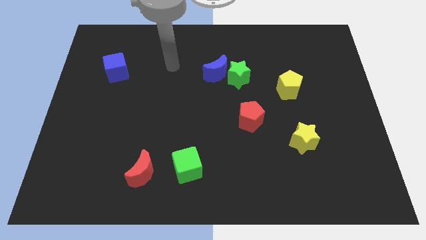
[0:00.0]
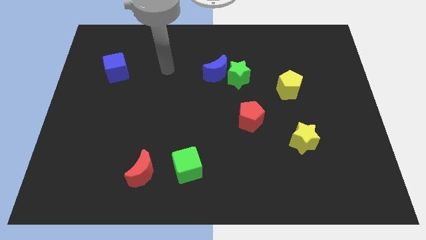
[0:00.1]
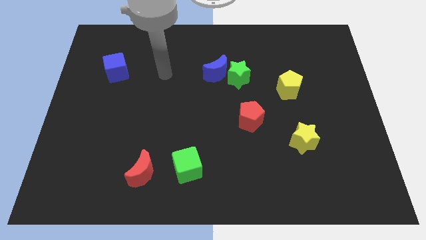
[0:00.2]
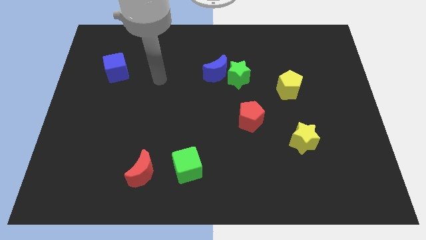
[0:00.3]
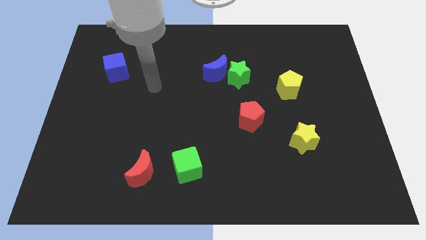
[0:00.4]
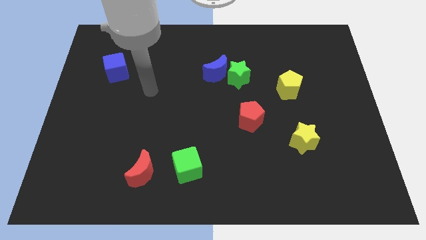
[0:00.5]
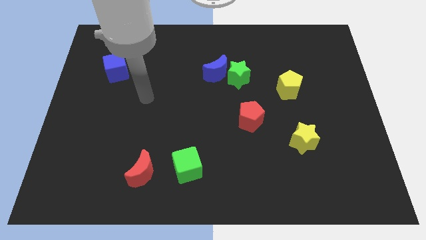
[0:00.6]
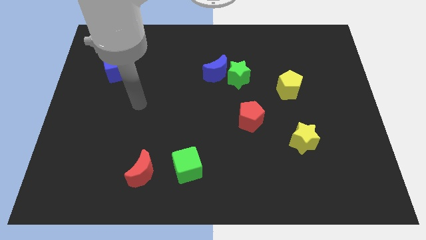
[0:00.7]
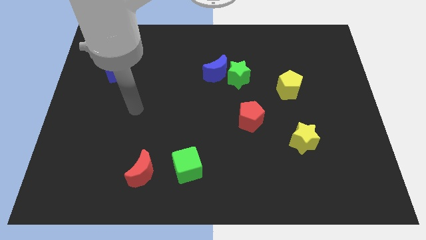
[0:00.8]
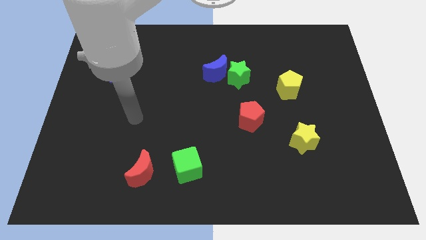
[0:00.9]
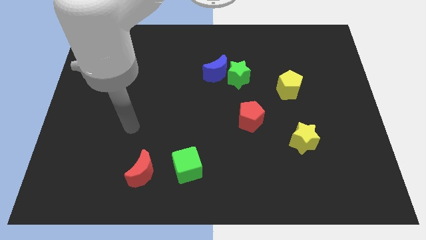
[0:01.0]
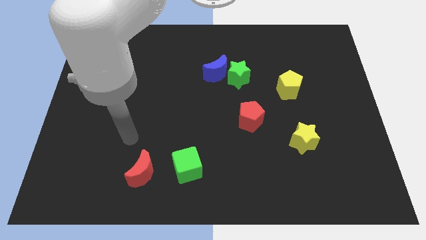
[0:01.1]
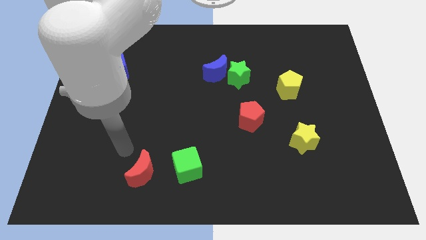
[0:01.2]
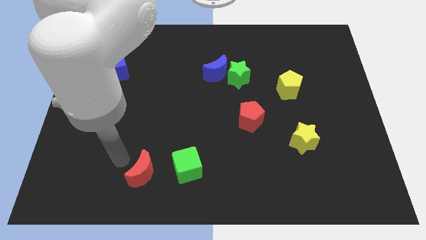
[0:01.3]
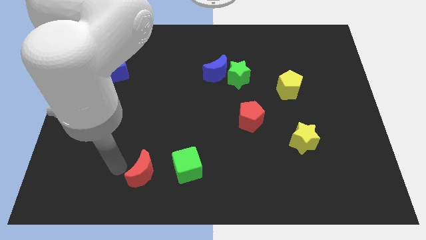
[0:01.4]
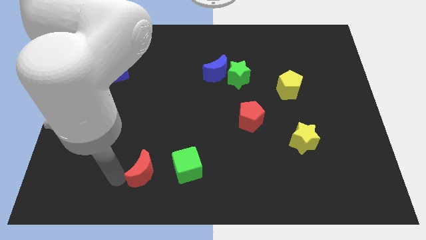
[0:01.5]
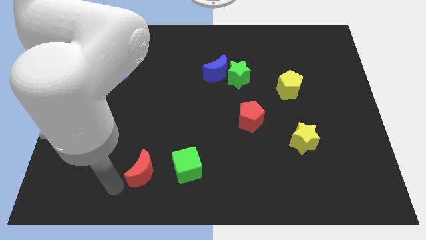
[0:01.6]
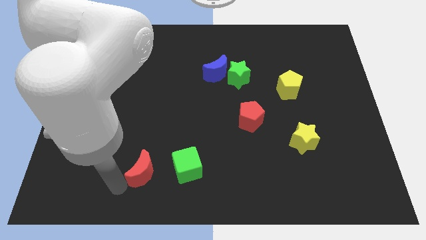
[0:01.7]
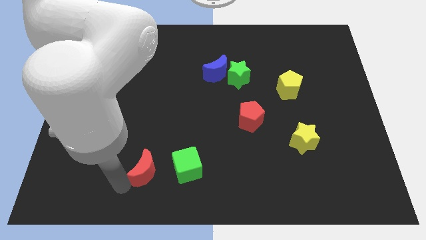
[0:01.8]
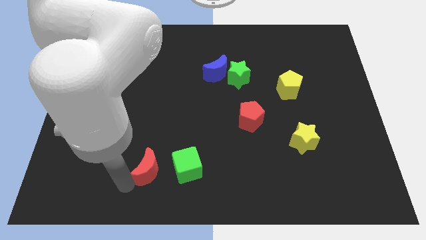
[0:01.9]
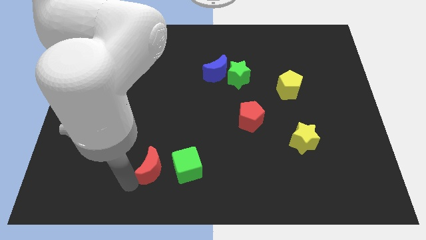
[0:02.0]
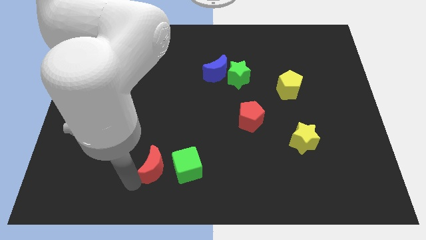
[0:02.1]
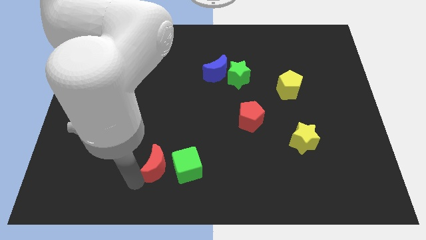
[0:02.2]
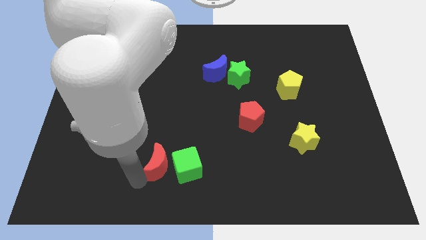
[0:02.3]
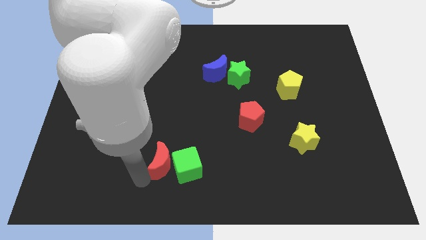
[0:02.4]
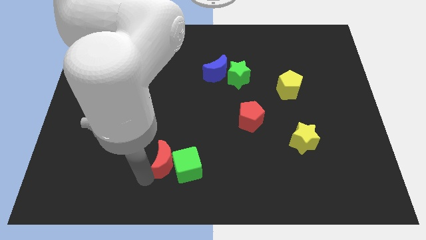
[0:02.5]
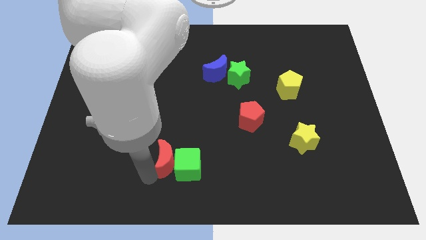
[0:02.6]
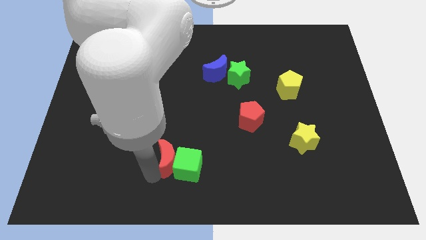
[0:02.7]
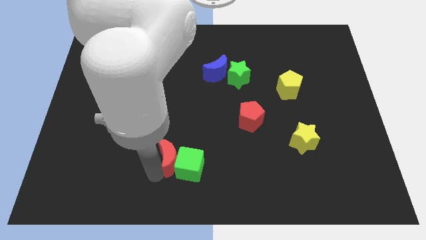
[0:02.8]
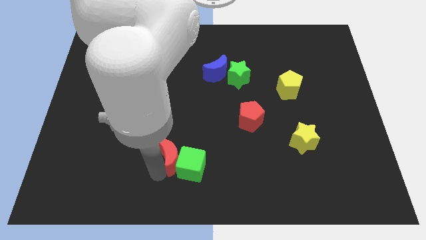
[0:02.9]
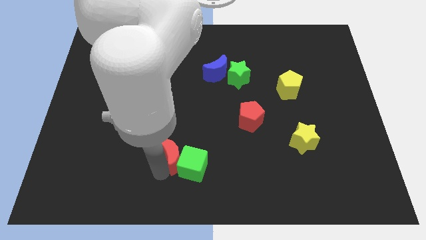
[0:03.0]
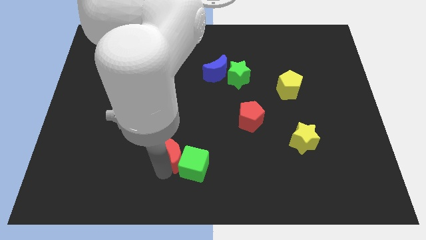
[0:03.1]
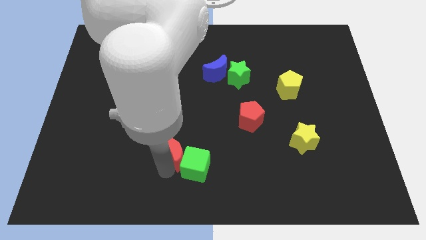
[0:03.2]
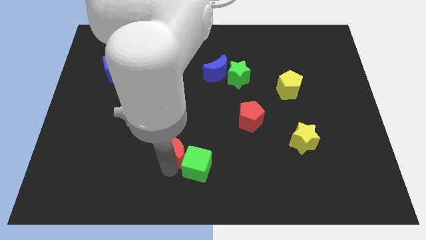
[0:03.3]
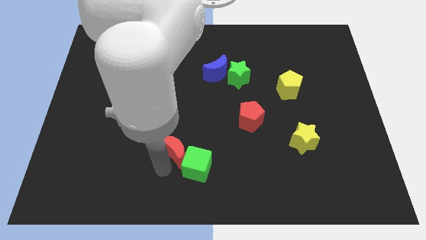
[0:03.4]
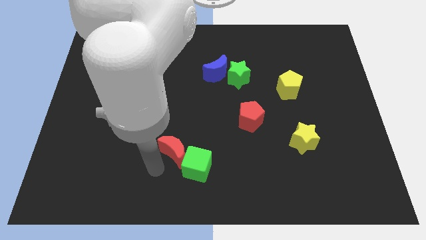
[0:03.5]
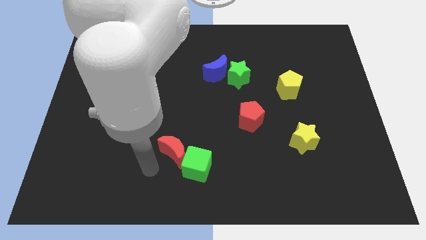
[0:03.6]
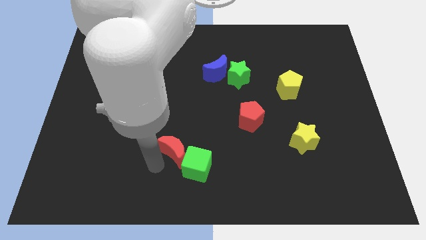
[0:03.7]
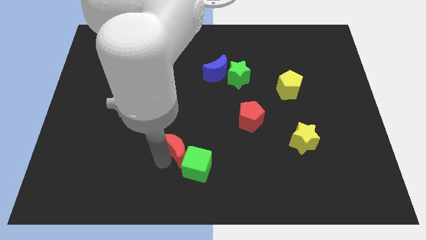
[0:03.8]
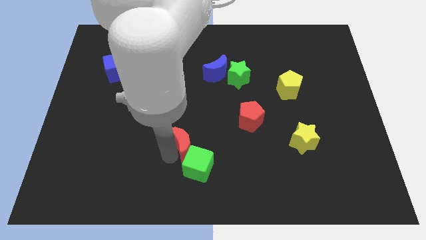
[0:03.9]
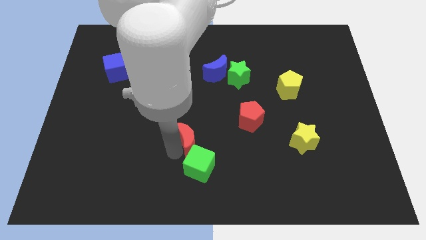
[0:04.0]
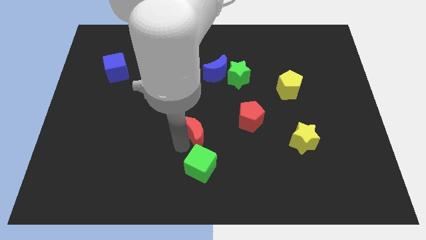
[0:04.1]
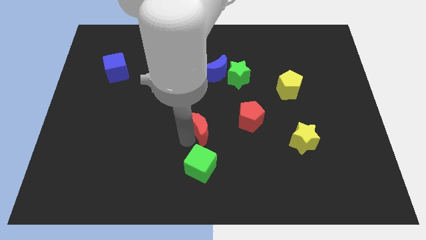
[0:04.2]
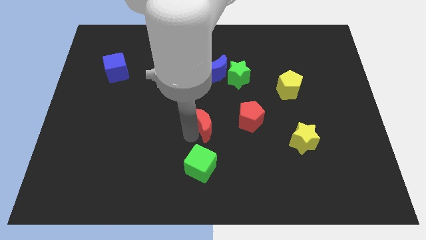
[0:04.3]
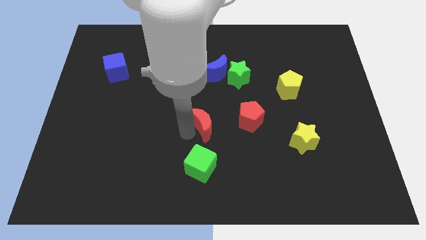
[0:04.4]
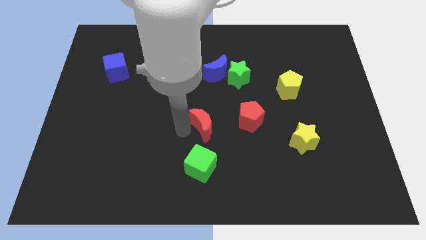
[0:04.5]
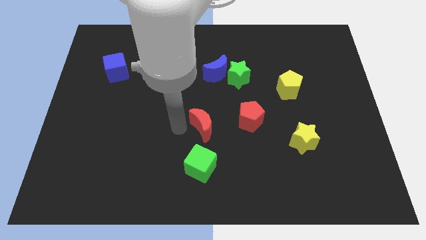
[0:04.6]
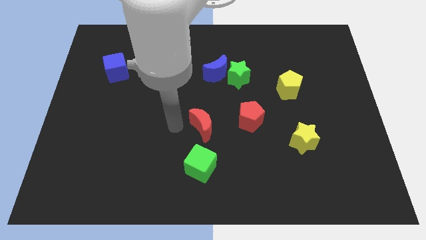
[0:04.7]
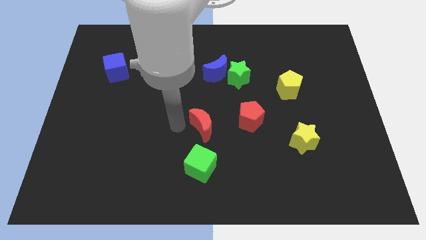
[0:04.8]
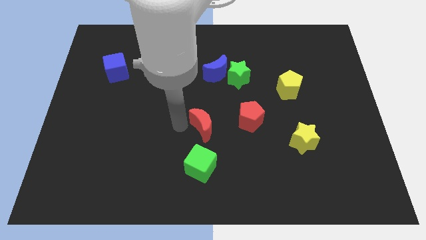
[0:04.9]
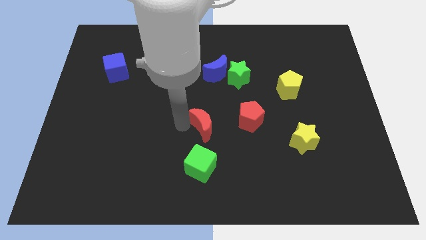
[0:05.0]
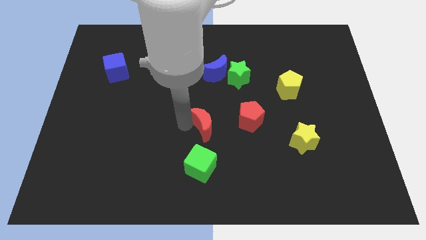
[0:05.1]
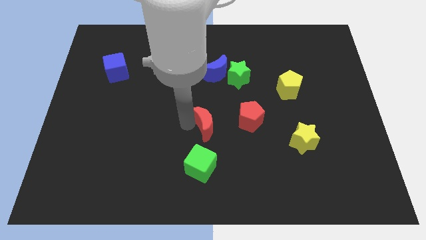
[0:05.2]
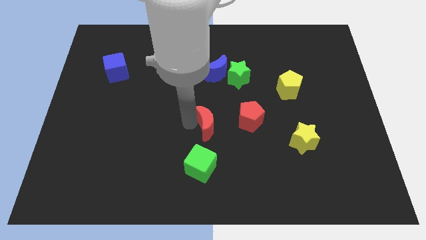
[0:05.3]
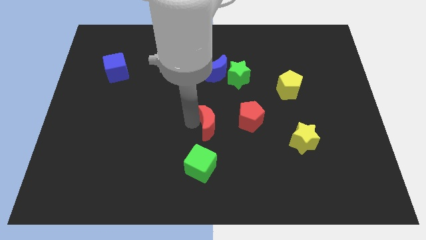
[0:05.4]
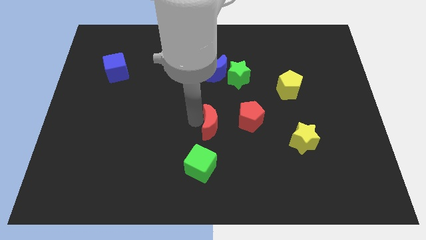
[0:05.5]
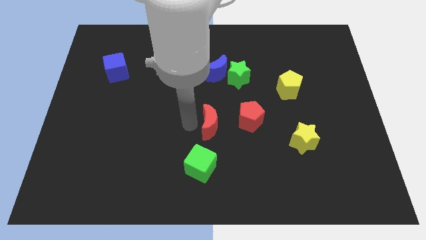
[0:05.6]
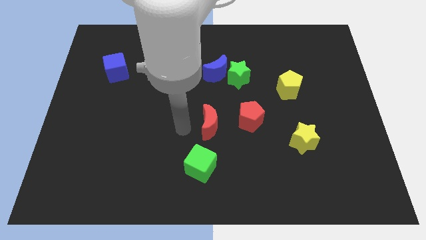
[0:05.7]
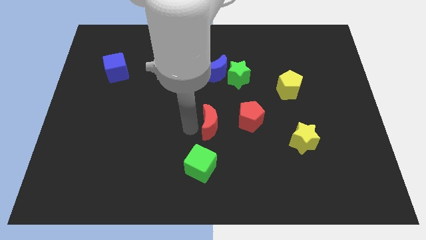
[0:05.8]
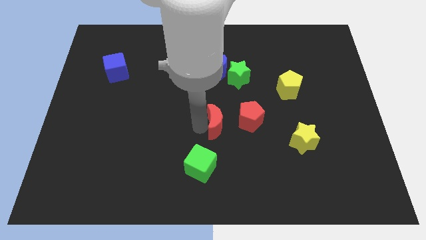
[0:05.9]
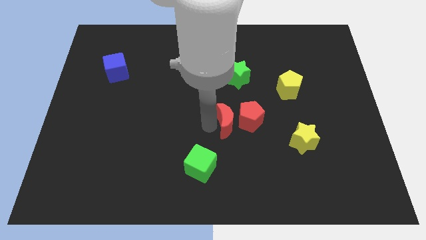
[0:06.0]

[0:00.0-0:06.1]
push the red moon to the red pentagon

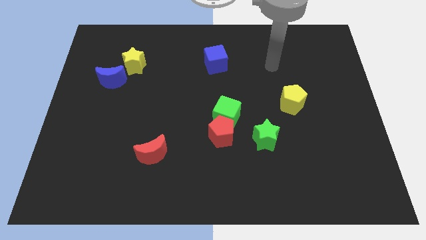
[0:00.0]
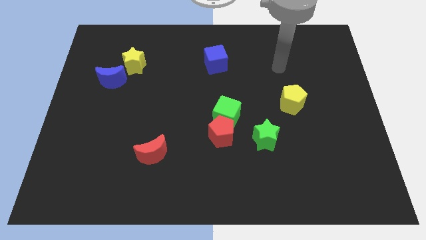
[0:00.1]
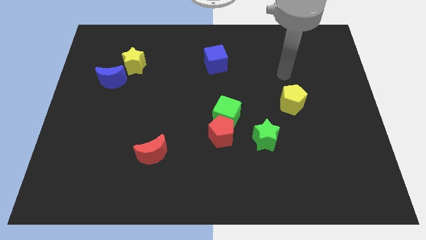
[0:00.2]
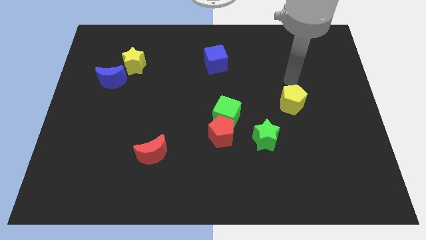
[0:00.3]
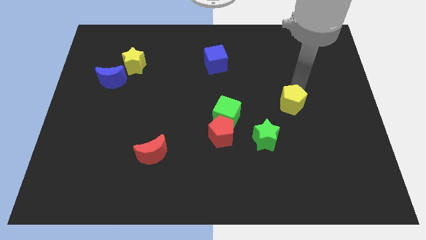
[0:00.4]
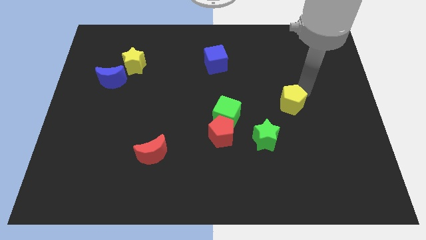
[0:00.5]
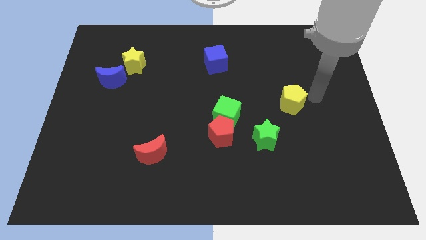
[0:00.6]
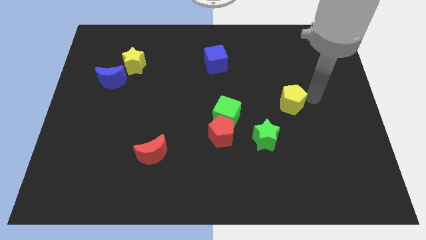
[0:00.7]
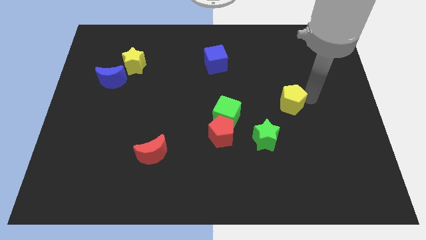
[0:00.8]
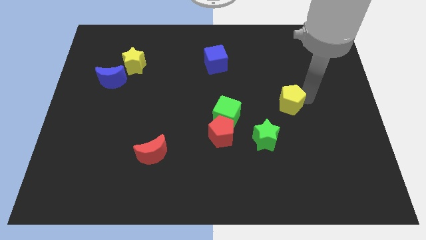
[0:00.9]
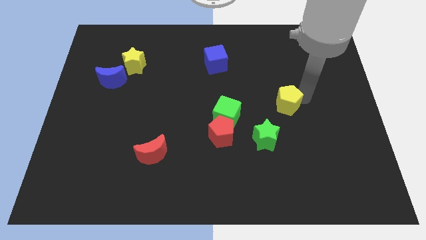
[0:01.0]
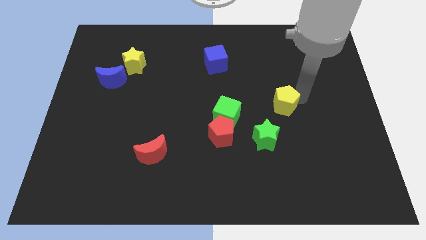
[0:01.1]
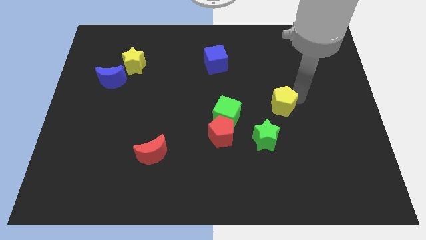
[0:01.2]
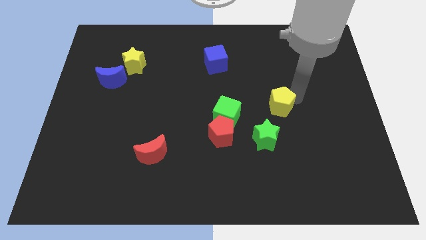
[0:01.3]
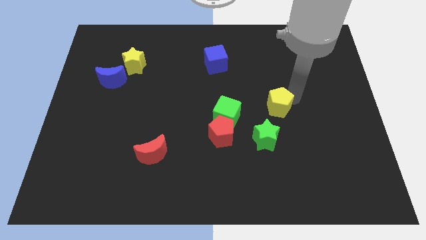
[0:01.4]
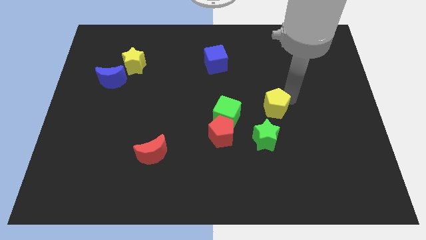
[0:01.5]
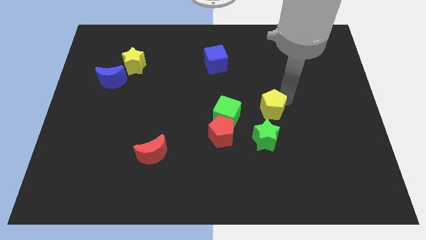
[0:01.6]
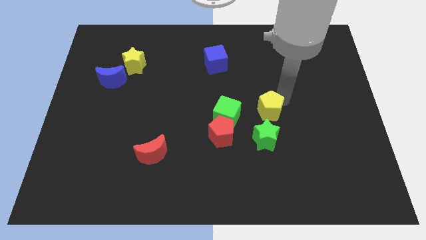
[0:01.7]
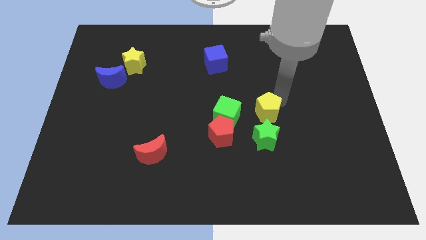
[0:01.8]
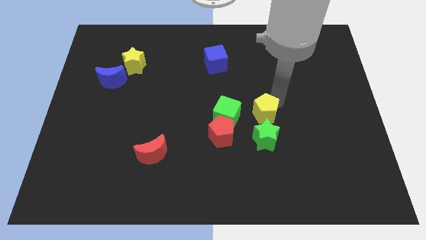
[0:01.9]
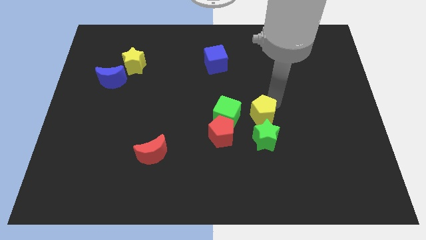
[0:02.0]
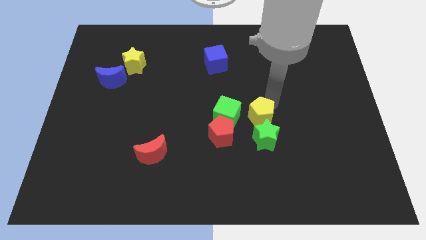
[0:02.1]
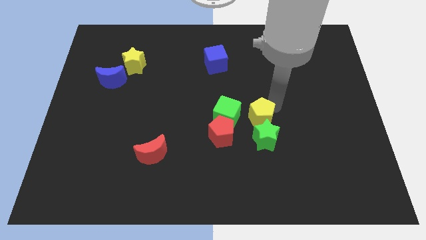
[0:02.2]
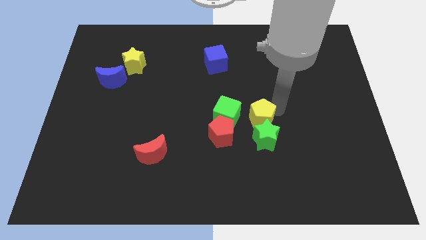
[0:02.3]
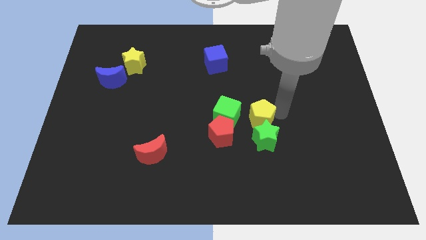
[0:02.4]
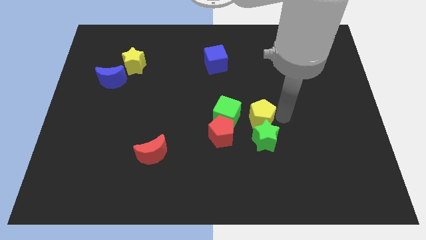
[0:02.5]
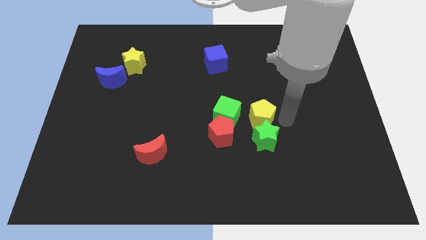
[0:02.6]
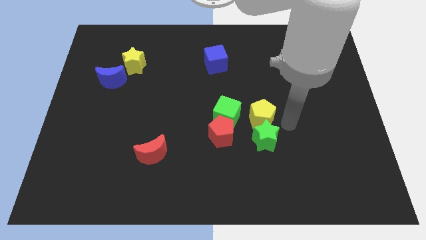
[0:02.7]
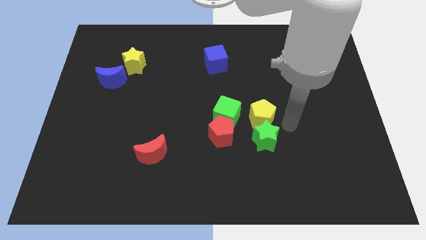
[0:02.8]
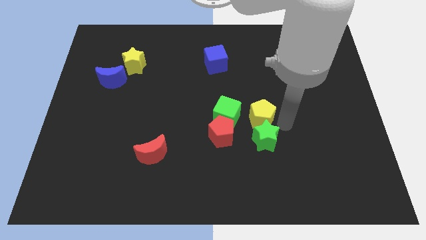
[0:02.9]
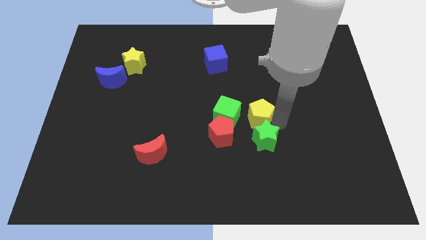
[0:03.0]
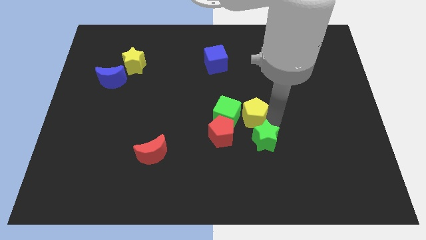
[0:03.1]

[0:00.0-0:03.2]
move the yellow pentagon close to the green cube
